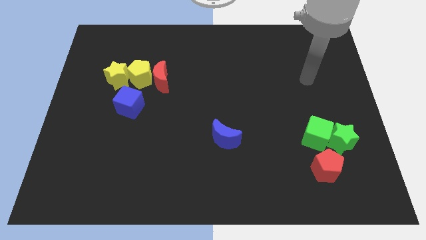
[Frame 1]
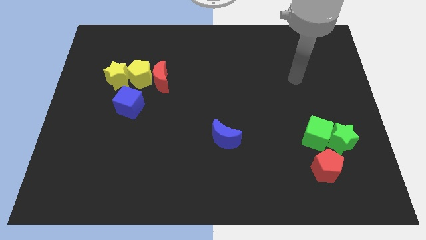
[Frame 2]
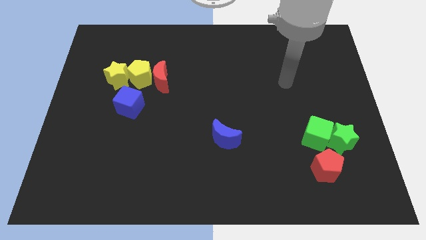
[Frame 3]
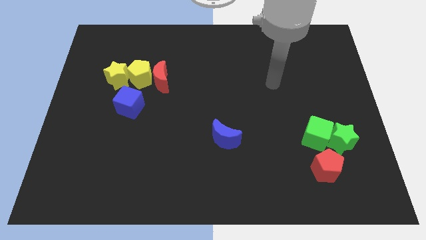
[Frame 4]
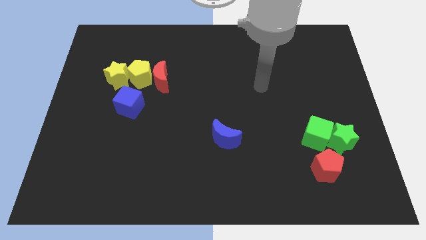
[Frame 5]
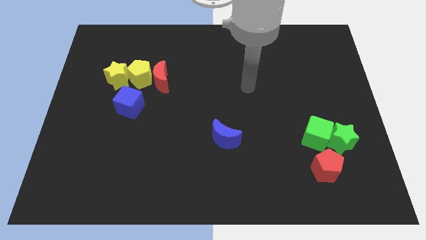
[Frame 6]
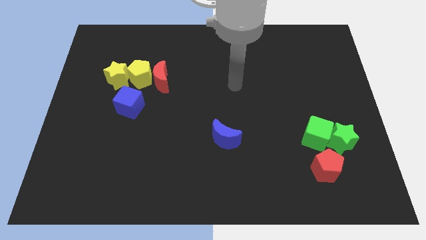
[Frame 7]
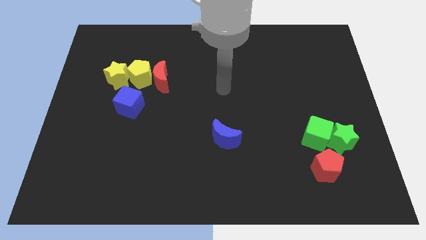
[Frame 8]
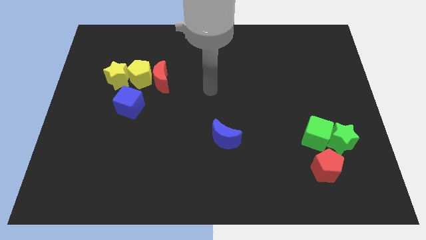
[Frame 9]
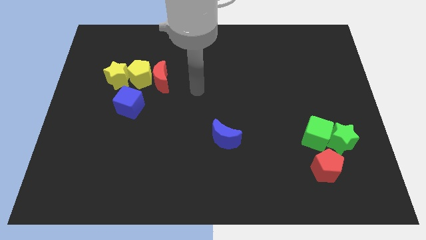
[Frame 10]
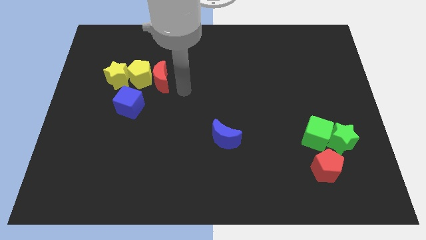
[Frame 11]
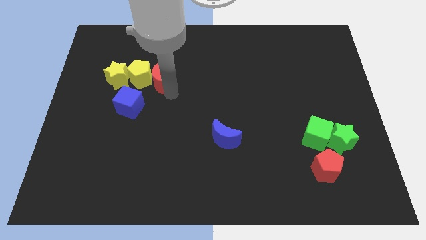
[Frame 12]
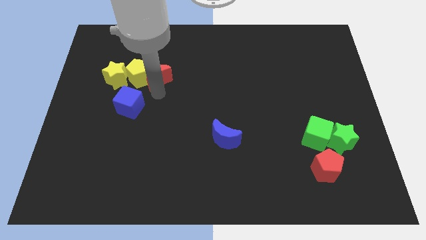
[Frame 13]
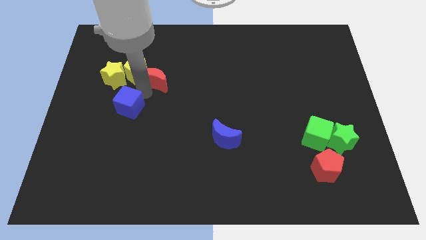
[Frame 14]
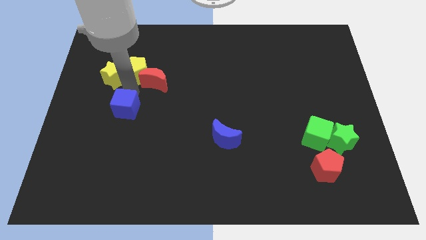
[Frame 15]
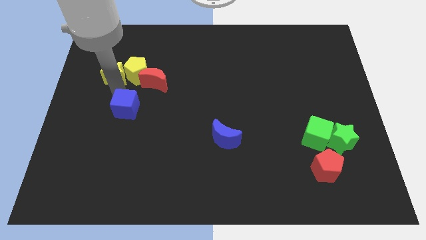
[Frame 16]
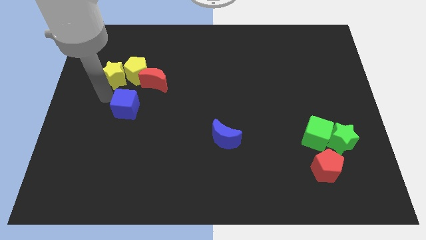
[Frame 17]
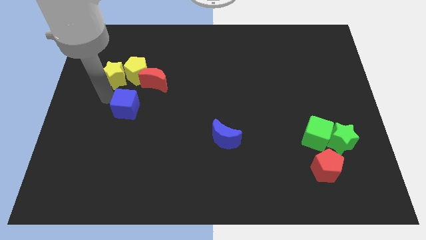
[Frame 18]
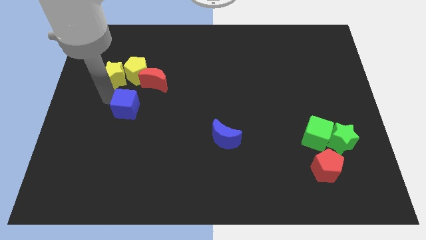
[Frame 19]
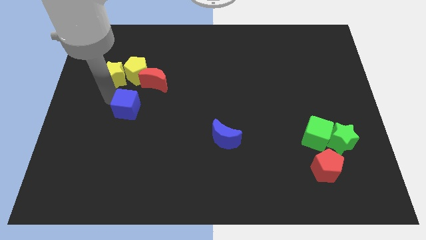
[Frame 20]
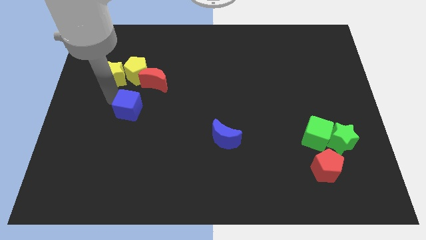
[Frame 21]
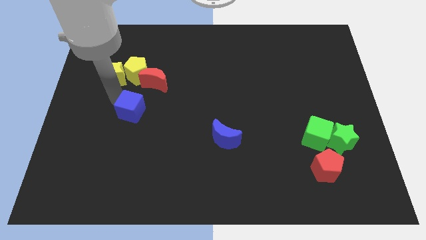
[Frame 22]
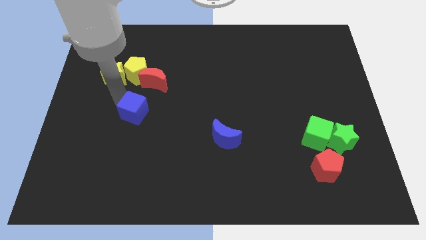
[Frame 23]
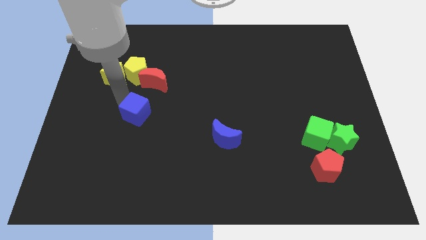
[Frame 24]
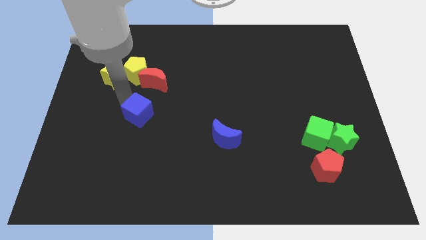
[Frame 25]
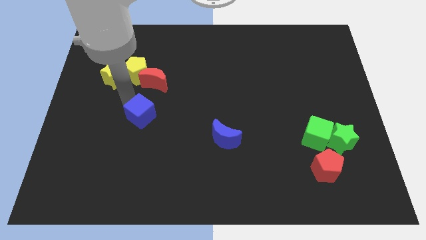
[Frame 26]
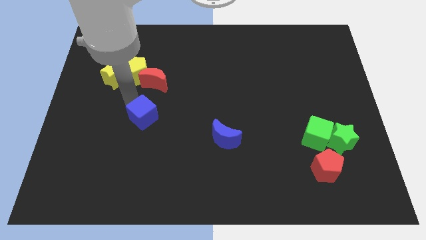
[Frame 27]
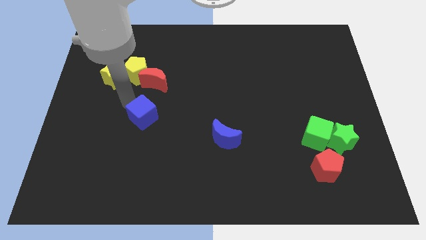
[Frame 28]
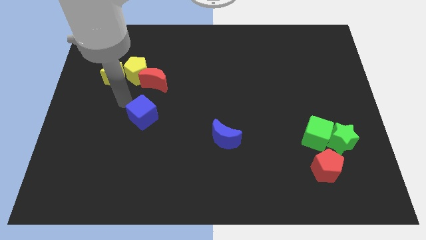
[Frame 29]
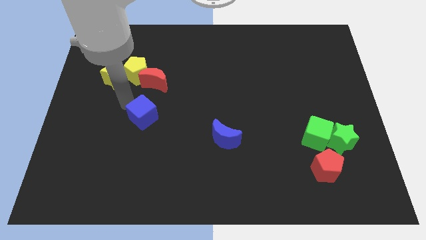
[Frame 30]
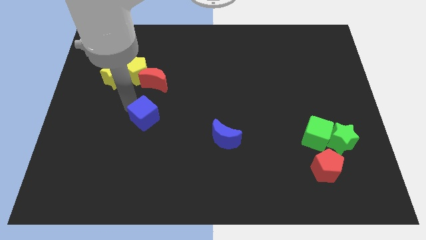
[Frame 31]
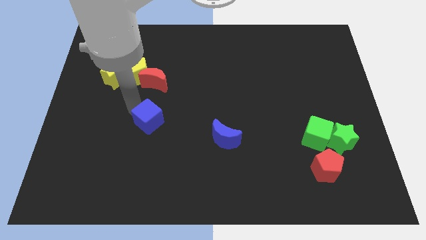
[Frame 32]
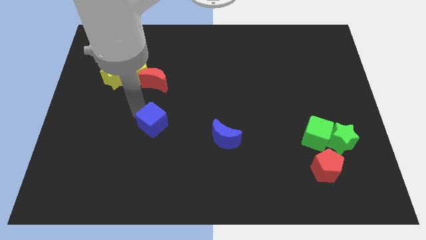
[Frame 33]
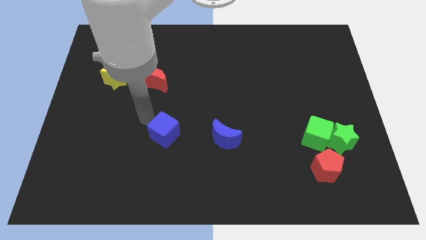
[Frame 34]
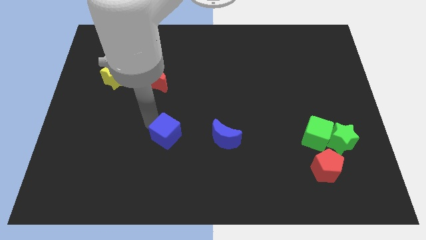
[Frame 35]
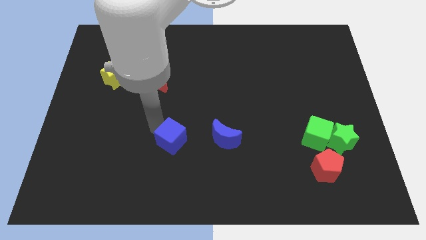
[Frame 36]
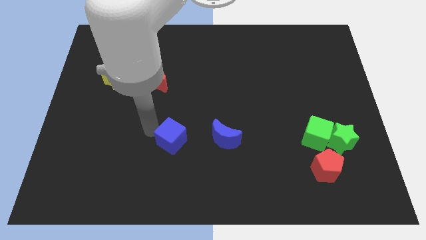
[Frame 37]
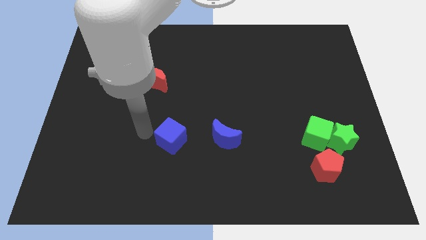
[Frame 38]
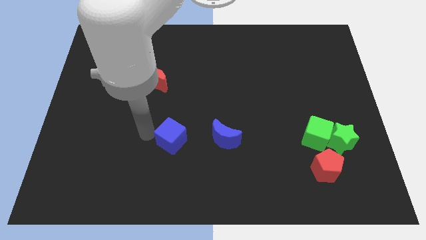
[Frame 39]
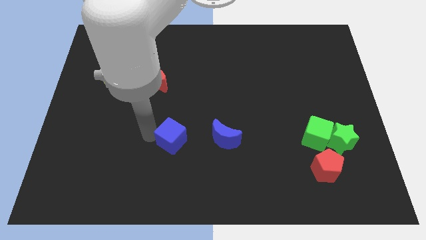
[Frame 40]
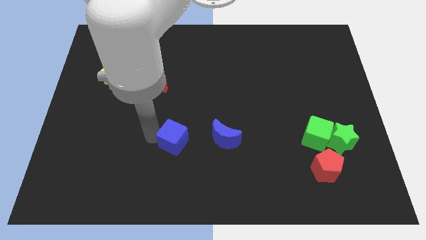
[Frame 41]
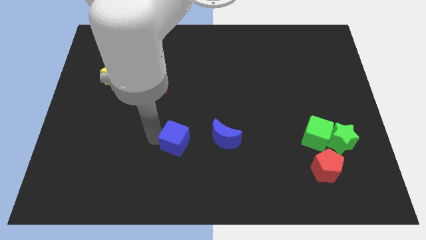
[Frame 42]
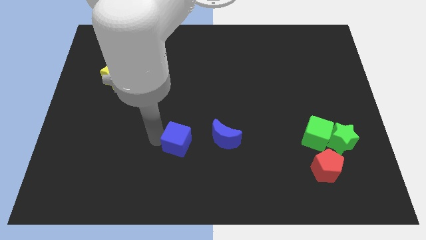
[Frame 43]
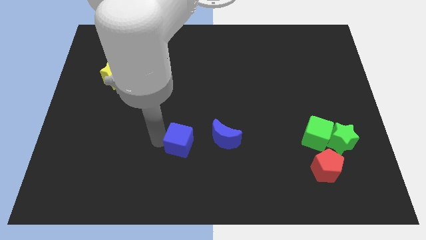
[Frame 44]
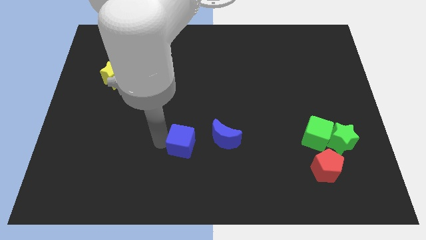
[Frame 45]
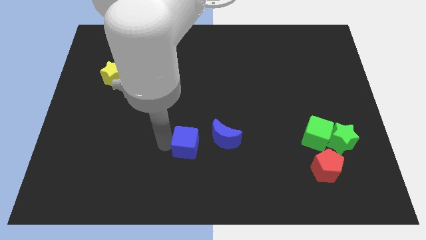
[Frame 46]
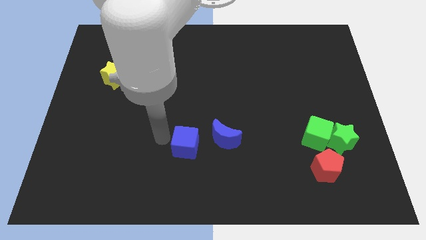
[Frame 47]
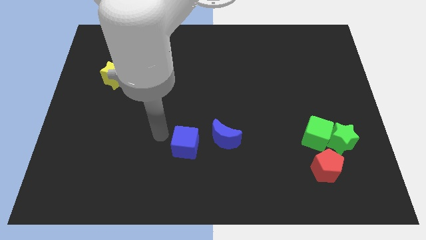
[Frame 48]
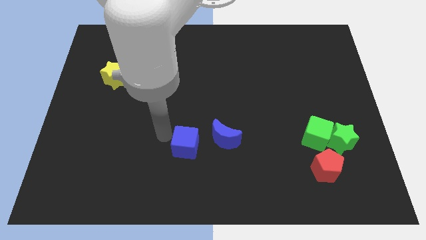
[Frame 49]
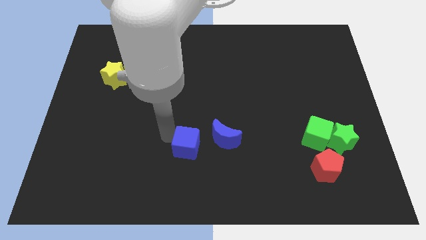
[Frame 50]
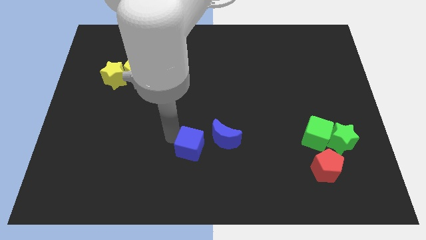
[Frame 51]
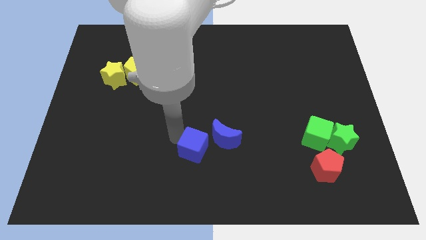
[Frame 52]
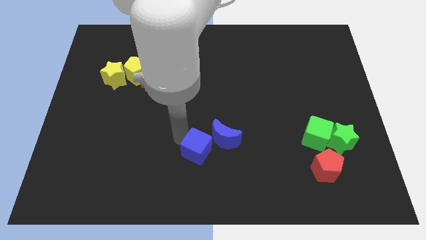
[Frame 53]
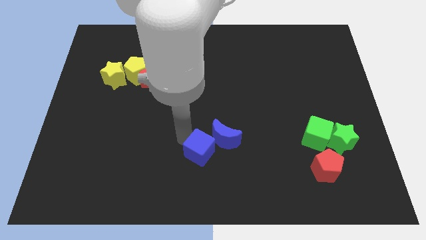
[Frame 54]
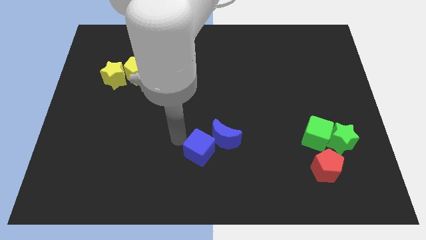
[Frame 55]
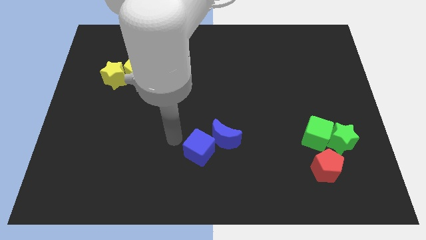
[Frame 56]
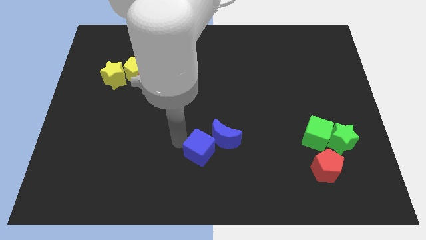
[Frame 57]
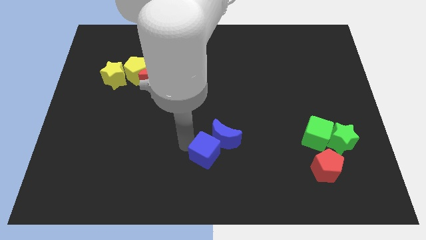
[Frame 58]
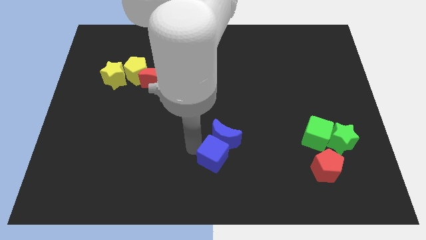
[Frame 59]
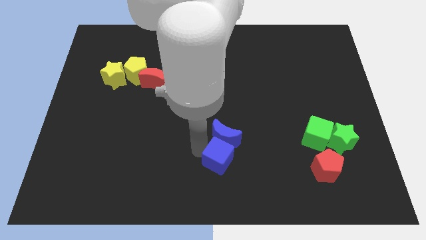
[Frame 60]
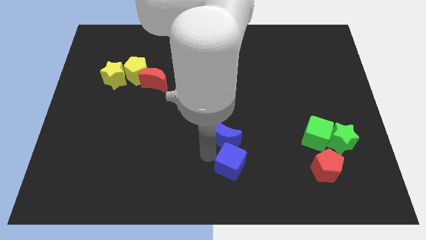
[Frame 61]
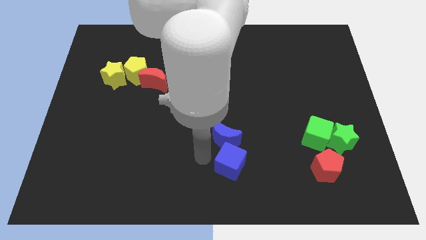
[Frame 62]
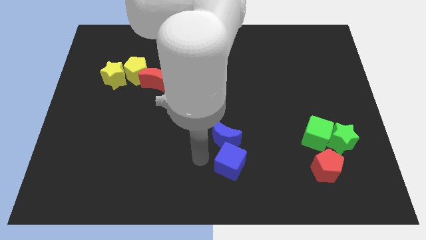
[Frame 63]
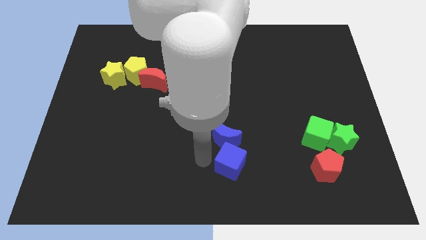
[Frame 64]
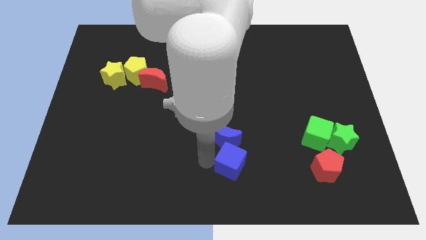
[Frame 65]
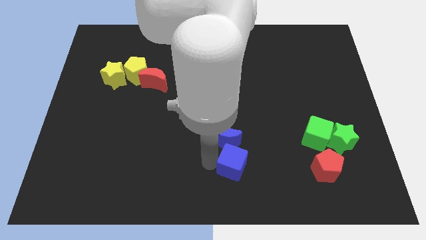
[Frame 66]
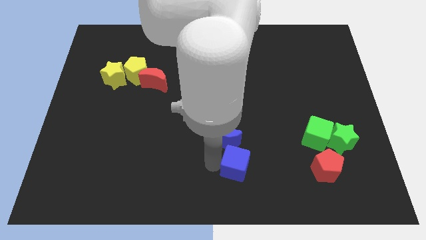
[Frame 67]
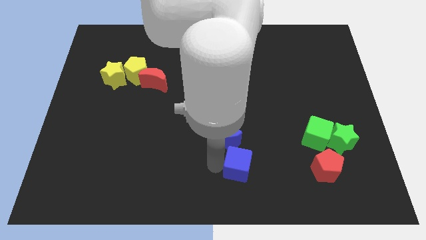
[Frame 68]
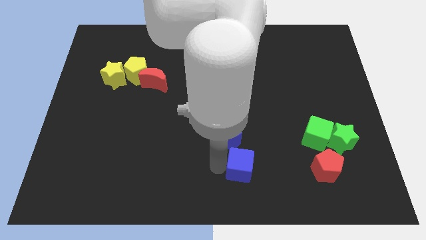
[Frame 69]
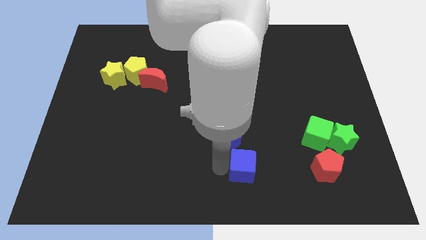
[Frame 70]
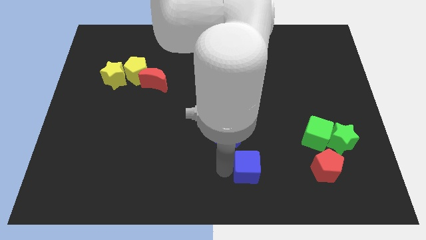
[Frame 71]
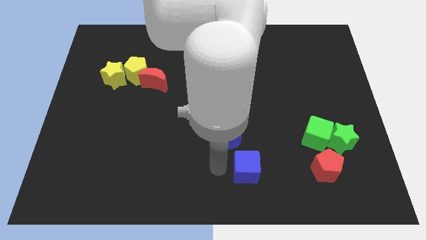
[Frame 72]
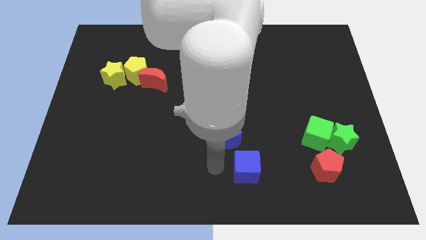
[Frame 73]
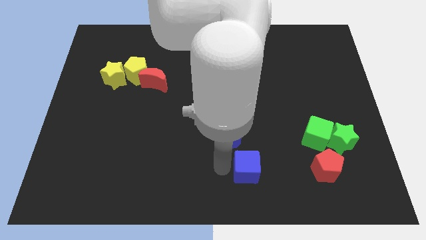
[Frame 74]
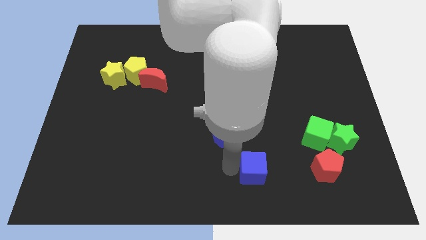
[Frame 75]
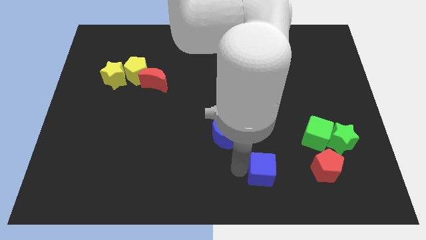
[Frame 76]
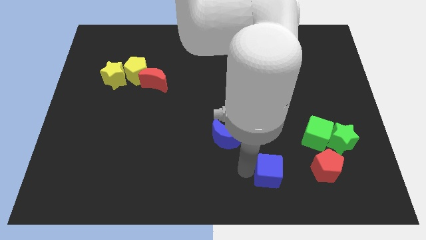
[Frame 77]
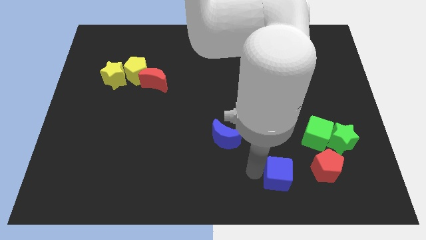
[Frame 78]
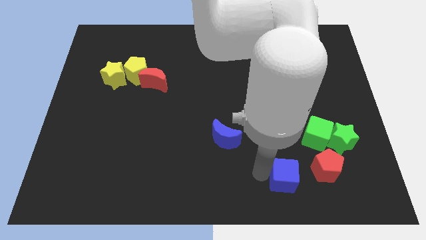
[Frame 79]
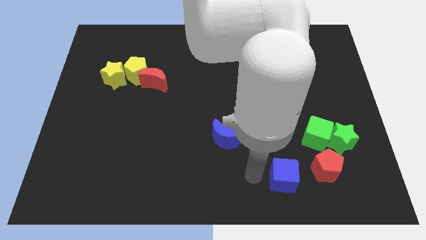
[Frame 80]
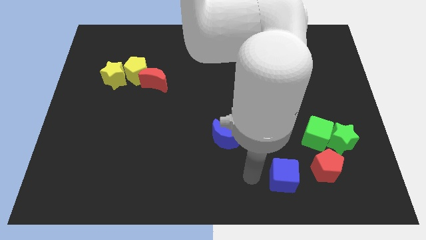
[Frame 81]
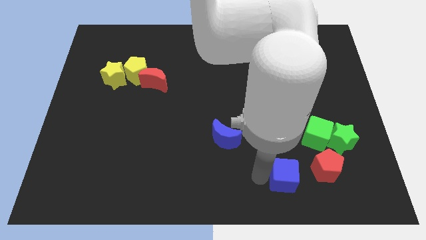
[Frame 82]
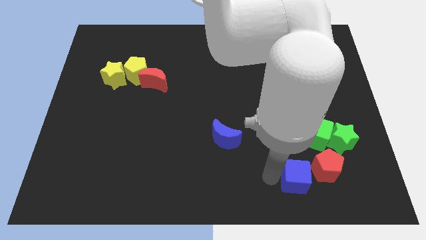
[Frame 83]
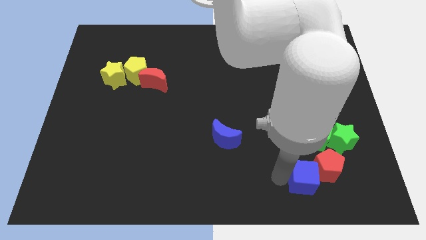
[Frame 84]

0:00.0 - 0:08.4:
put the blue cube below the green cube
